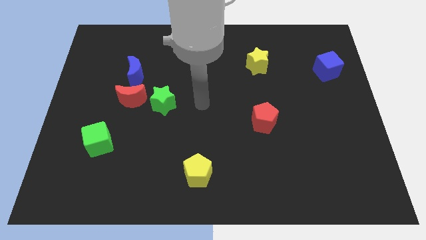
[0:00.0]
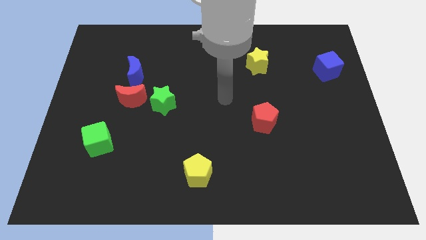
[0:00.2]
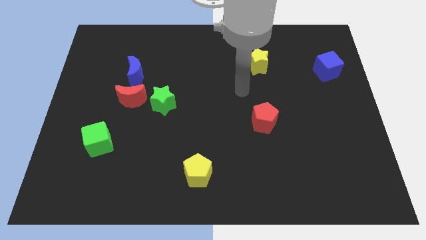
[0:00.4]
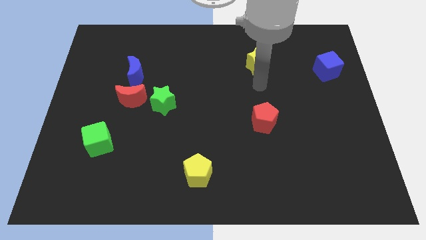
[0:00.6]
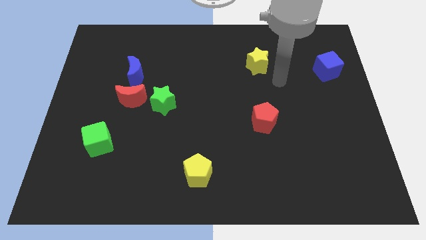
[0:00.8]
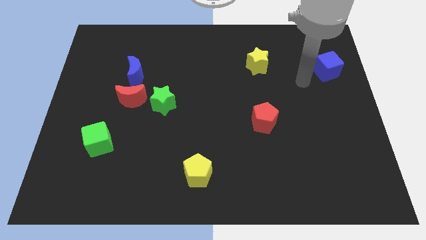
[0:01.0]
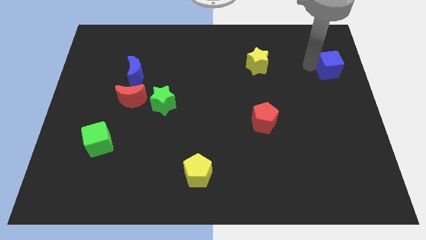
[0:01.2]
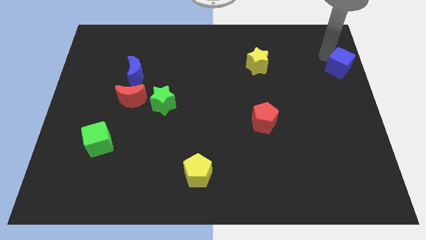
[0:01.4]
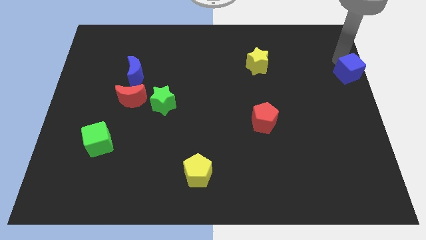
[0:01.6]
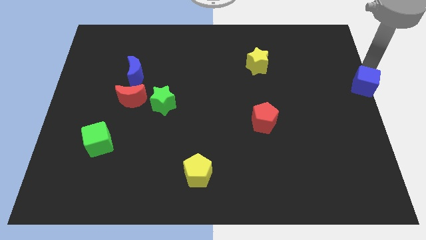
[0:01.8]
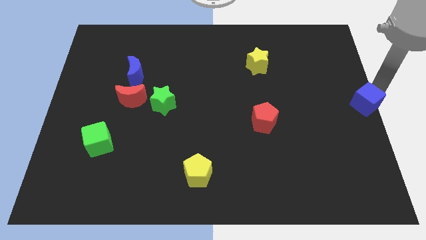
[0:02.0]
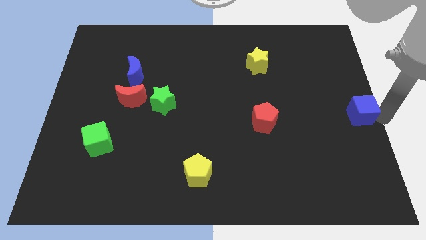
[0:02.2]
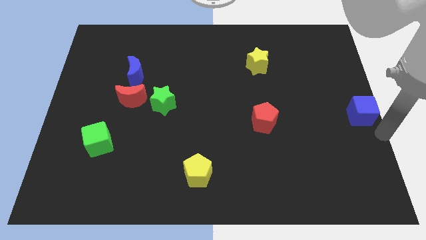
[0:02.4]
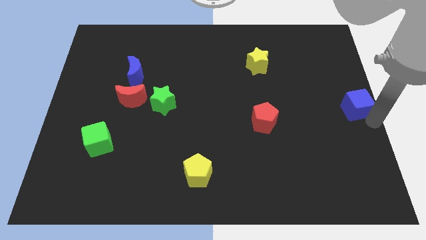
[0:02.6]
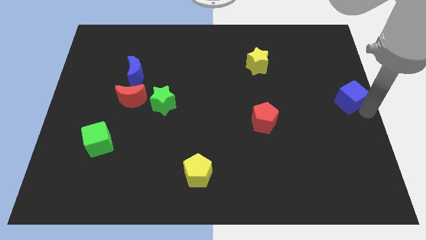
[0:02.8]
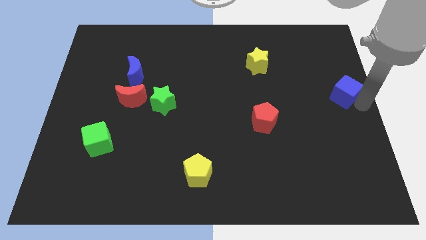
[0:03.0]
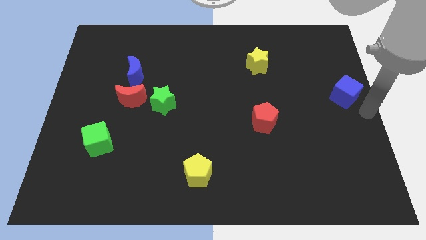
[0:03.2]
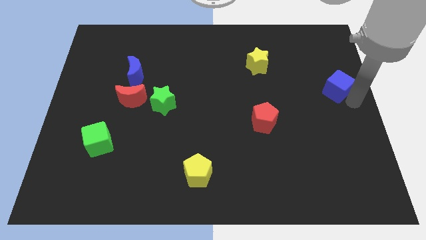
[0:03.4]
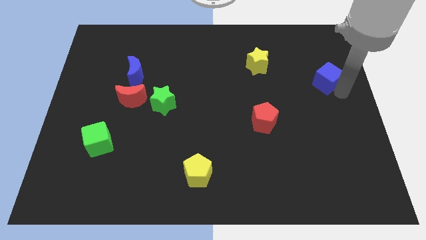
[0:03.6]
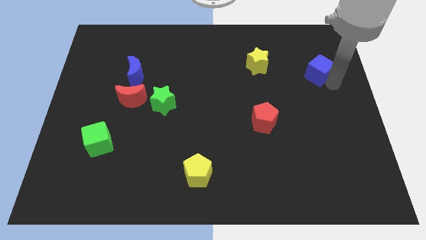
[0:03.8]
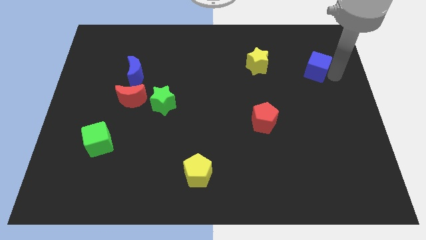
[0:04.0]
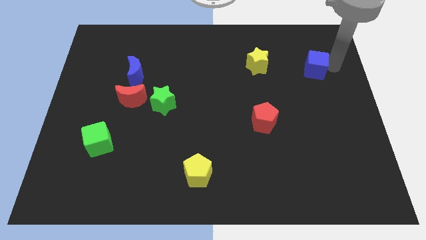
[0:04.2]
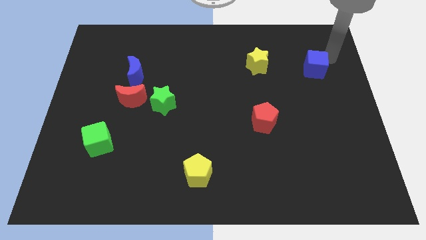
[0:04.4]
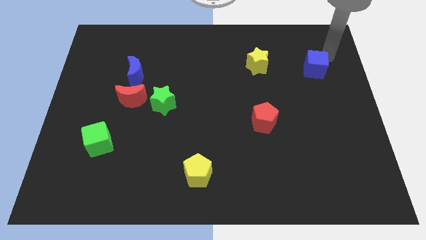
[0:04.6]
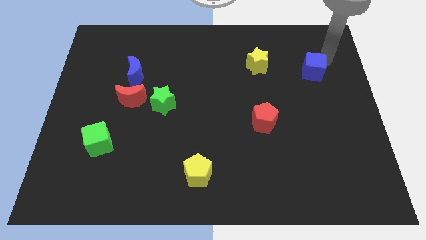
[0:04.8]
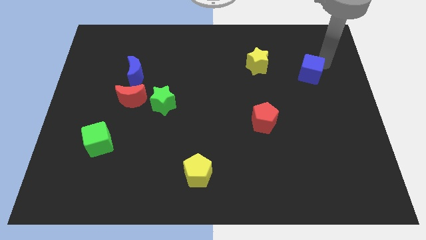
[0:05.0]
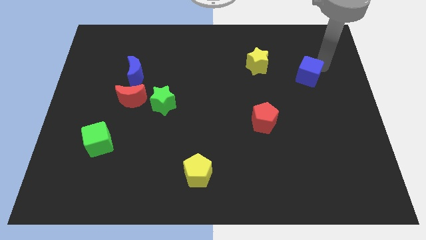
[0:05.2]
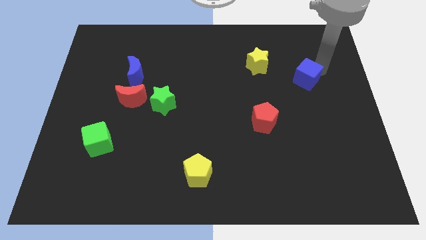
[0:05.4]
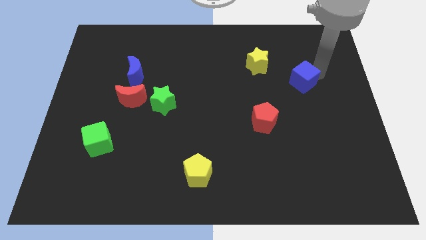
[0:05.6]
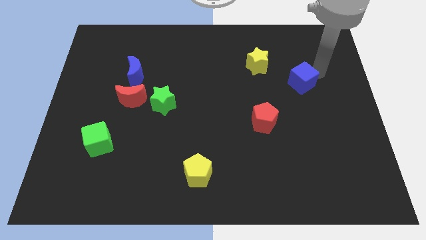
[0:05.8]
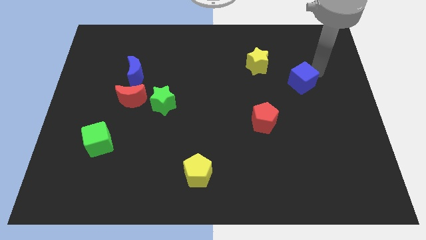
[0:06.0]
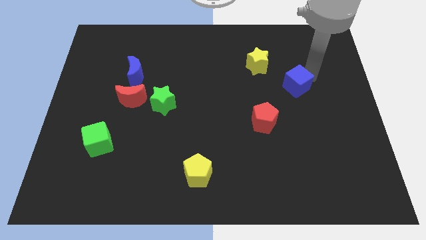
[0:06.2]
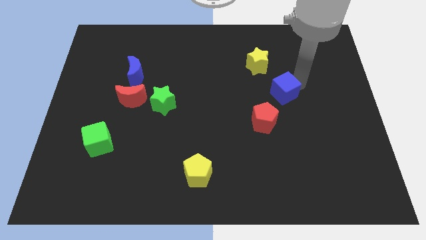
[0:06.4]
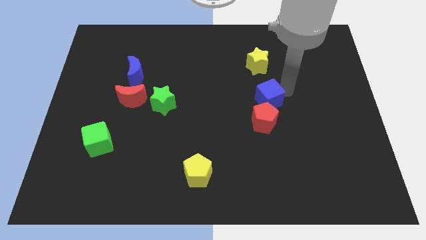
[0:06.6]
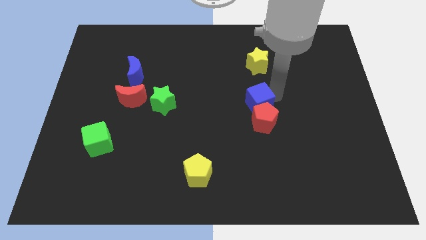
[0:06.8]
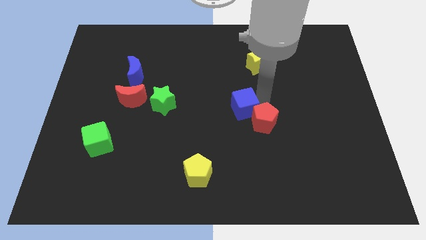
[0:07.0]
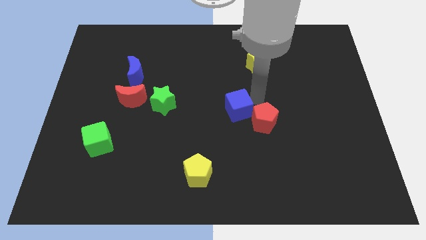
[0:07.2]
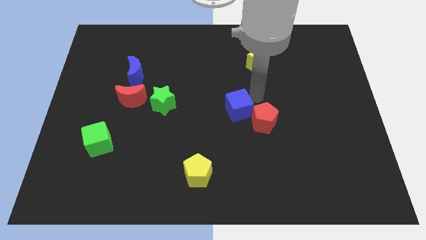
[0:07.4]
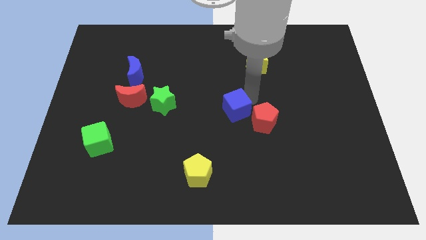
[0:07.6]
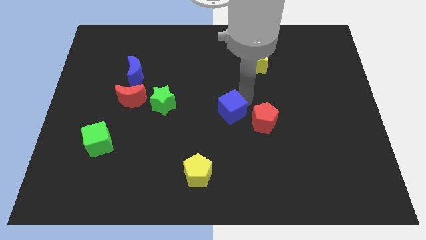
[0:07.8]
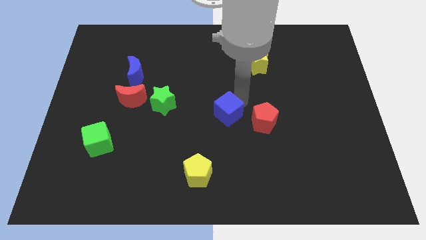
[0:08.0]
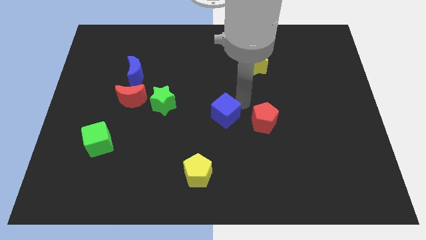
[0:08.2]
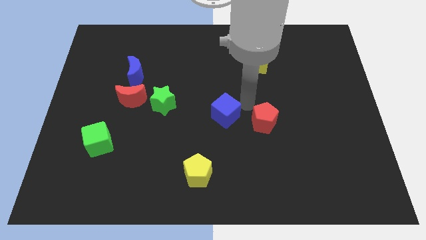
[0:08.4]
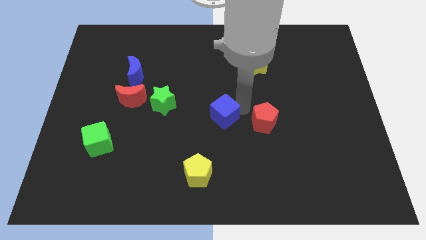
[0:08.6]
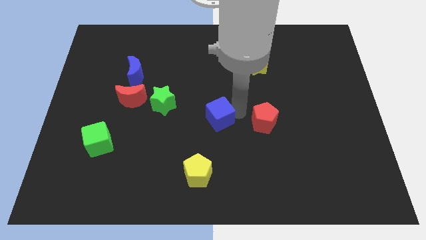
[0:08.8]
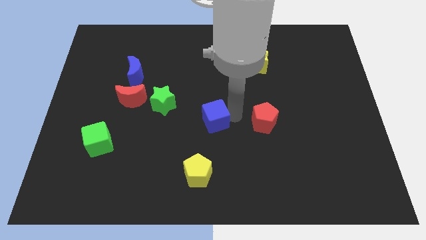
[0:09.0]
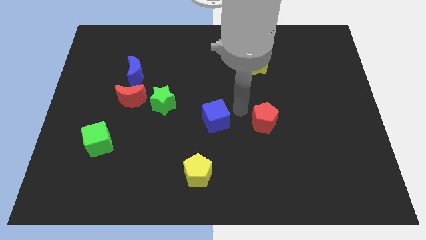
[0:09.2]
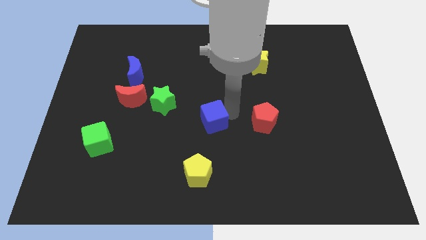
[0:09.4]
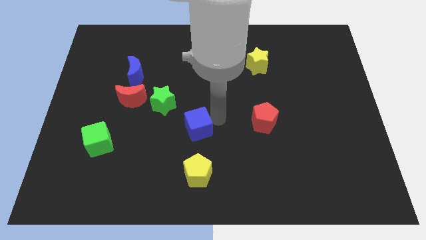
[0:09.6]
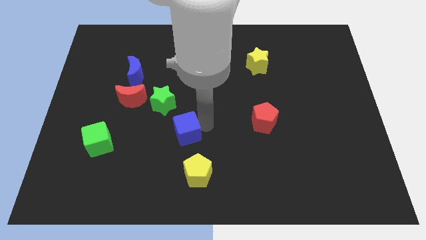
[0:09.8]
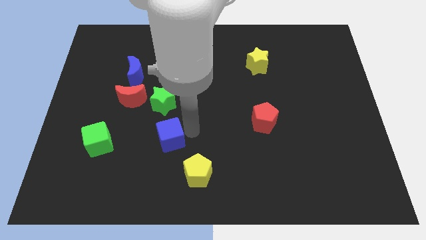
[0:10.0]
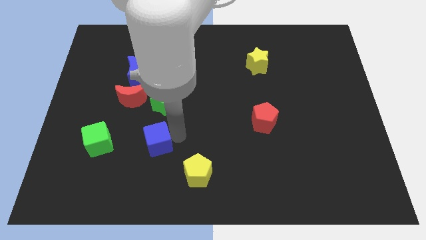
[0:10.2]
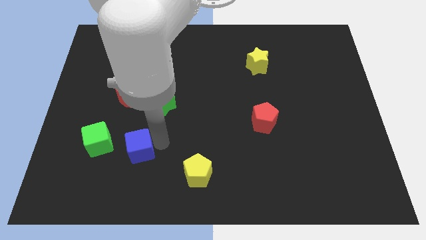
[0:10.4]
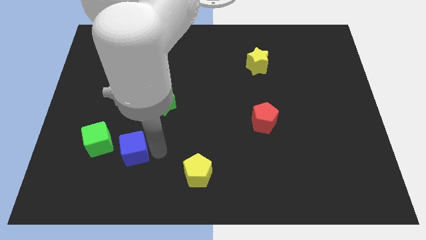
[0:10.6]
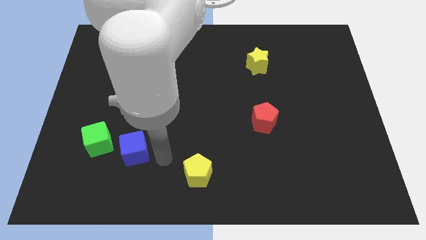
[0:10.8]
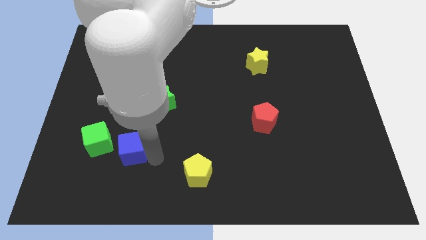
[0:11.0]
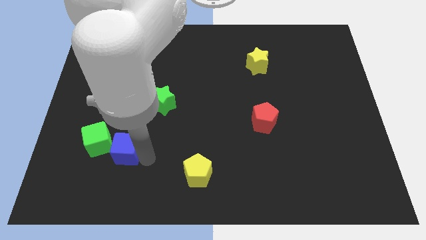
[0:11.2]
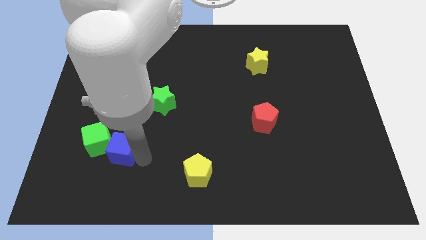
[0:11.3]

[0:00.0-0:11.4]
move the blue cube to the green cube
